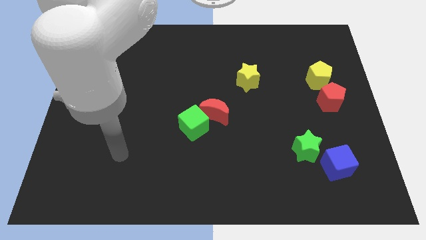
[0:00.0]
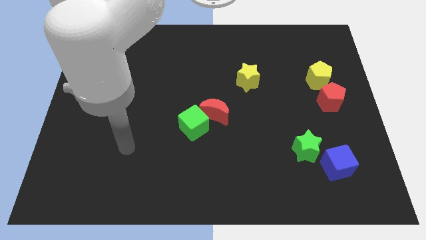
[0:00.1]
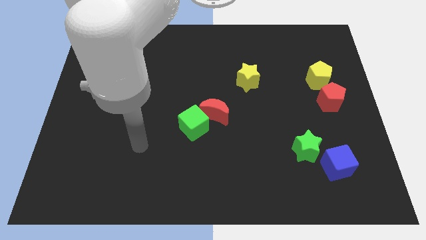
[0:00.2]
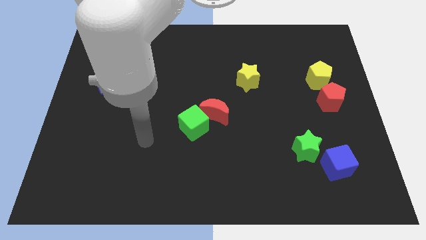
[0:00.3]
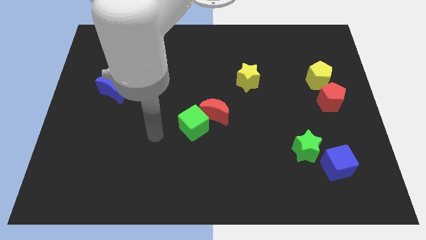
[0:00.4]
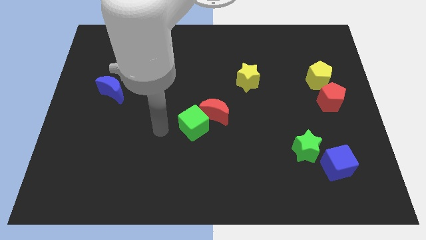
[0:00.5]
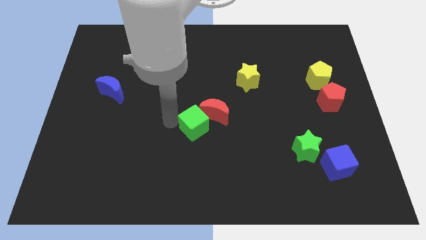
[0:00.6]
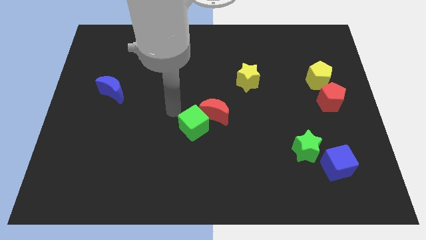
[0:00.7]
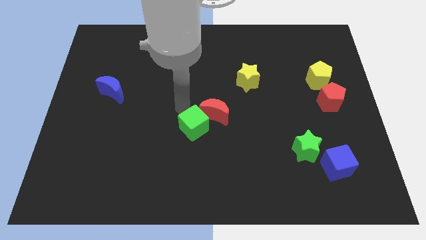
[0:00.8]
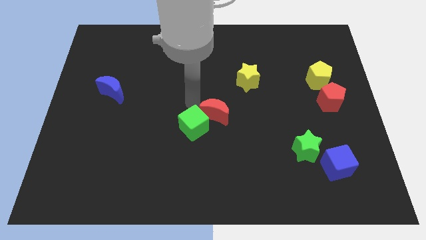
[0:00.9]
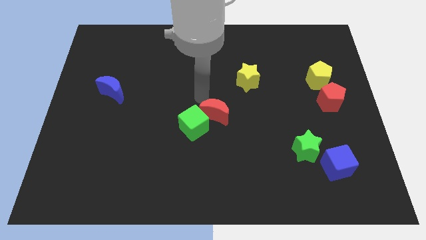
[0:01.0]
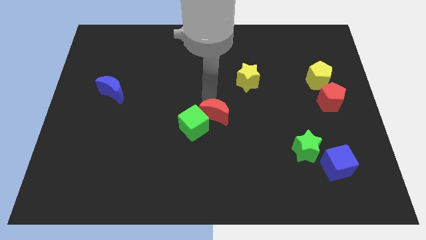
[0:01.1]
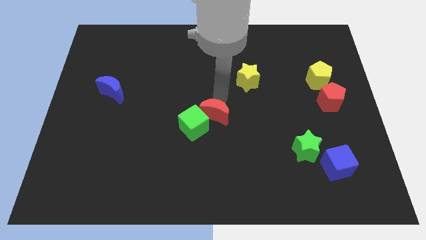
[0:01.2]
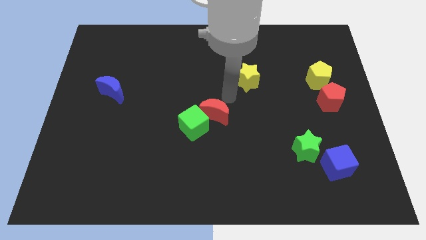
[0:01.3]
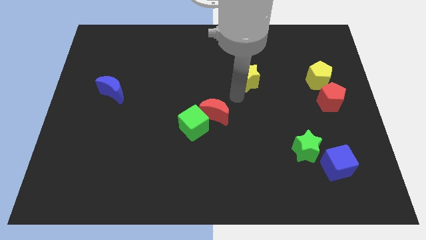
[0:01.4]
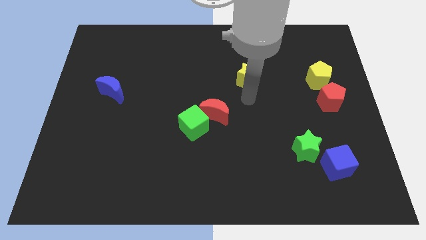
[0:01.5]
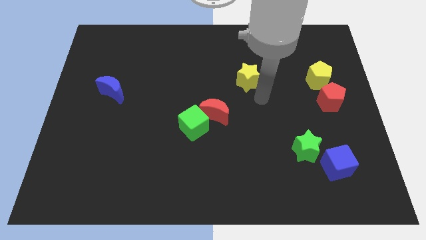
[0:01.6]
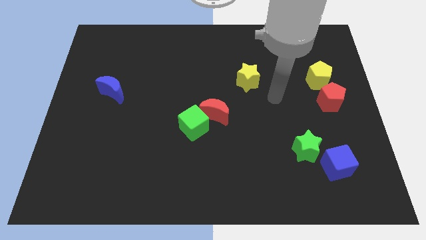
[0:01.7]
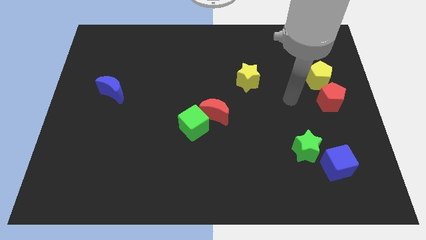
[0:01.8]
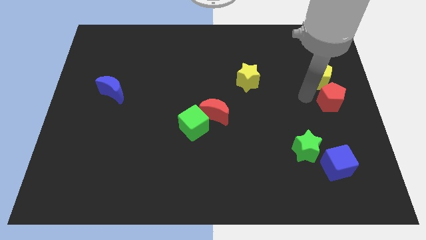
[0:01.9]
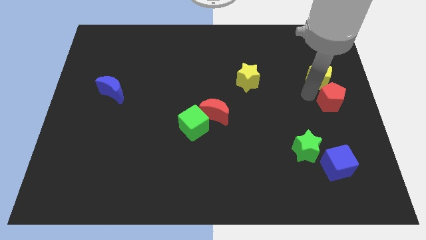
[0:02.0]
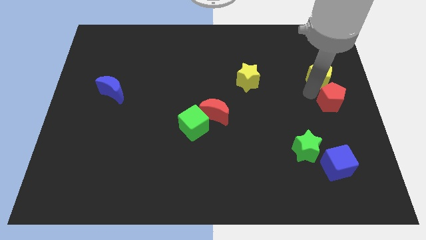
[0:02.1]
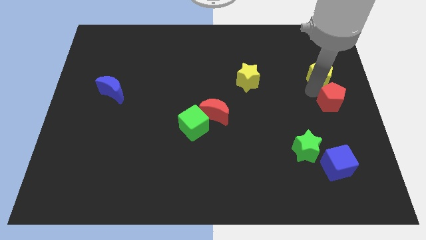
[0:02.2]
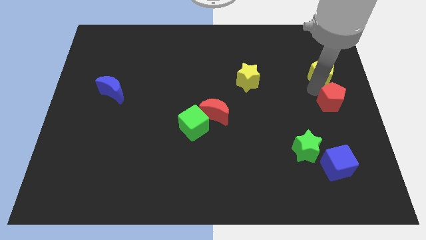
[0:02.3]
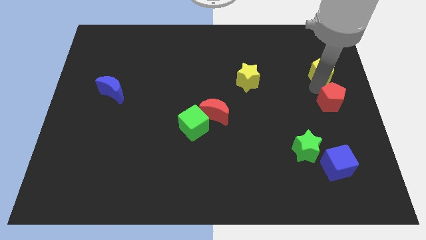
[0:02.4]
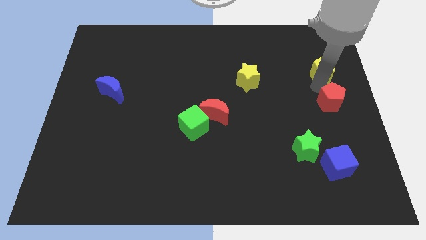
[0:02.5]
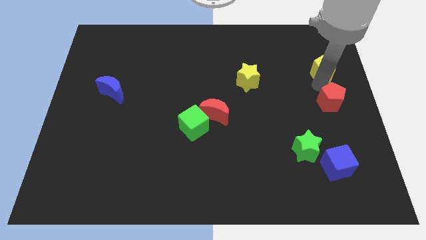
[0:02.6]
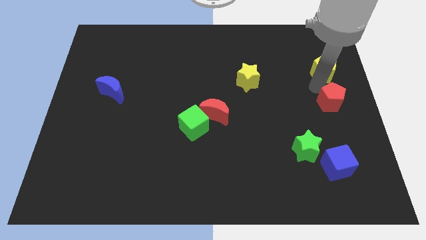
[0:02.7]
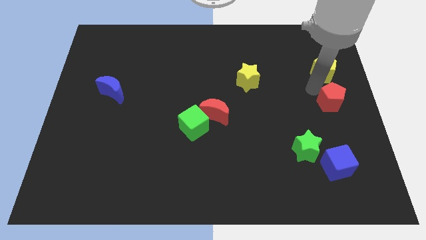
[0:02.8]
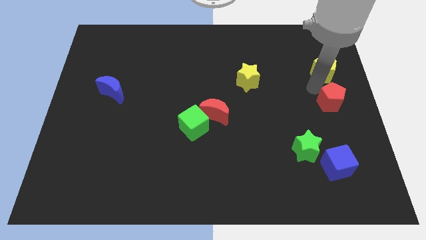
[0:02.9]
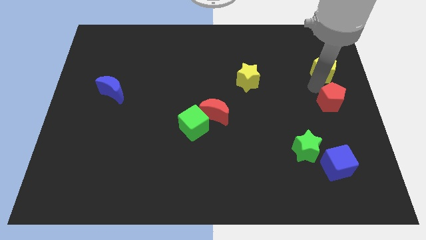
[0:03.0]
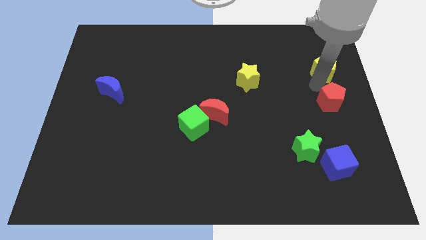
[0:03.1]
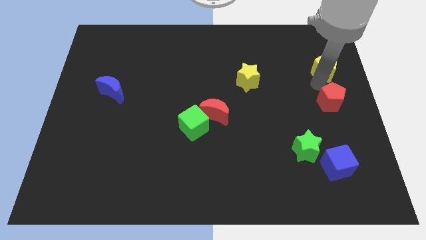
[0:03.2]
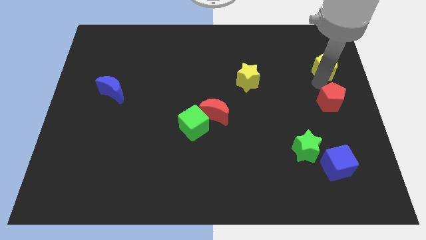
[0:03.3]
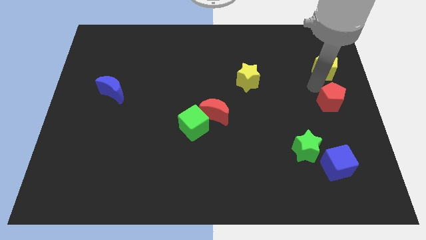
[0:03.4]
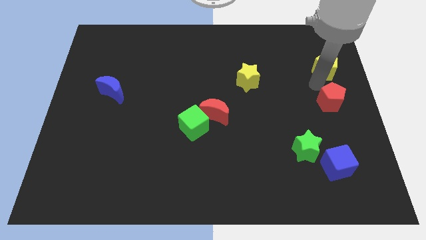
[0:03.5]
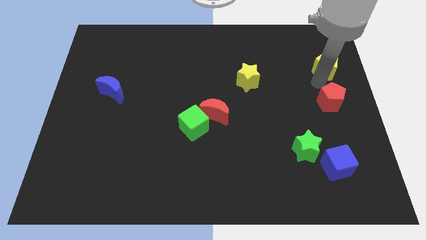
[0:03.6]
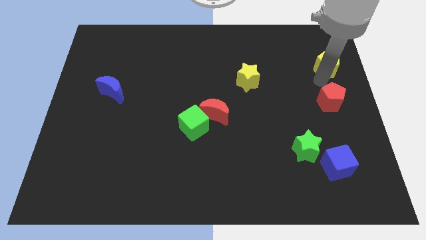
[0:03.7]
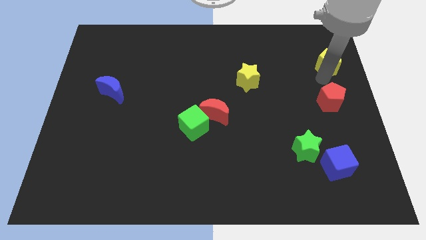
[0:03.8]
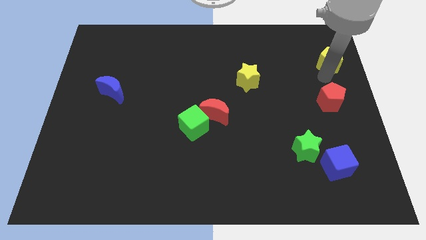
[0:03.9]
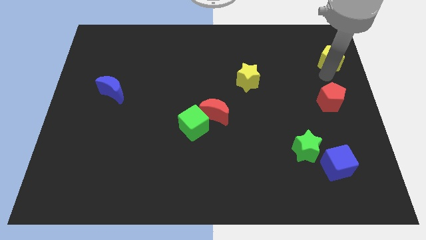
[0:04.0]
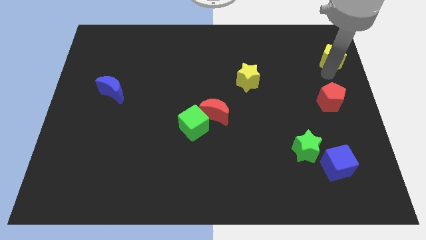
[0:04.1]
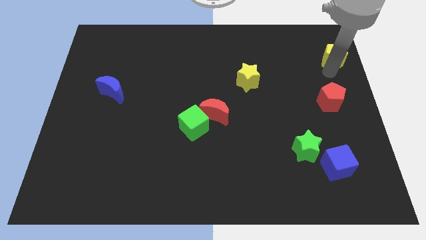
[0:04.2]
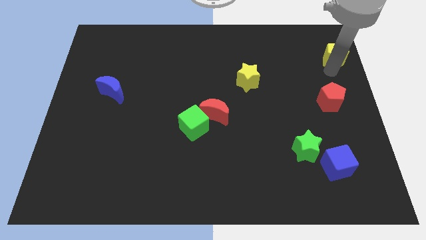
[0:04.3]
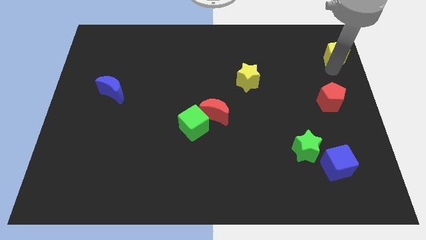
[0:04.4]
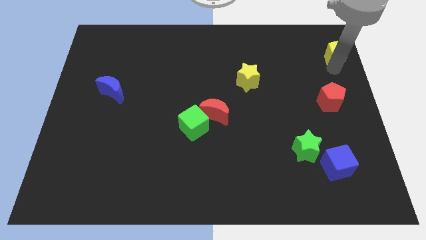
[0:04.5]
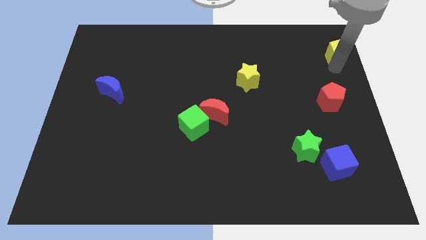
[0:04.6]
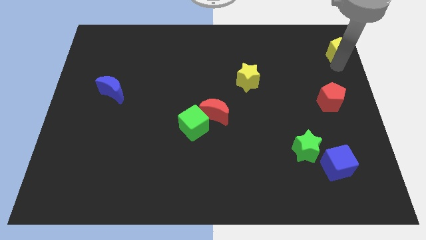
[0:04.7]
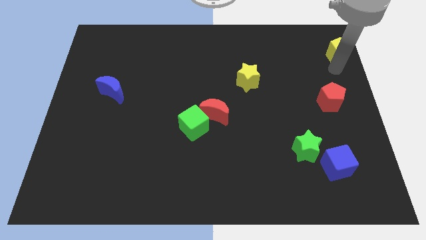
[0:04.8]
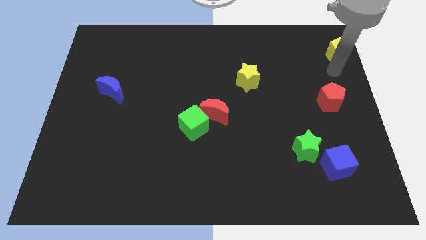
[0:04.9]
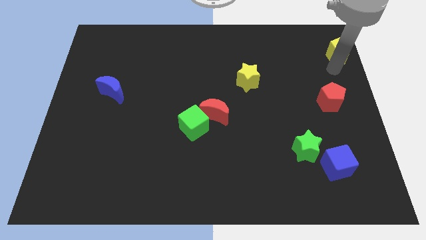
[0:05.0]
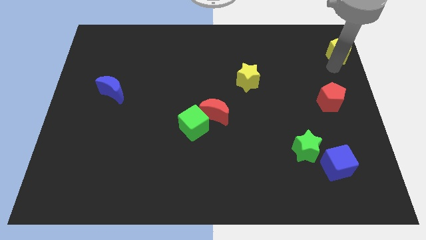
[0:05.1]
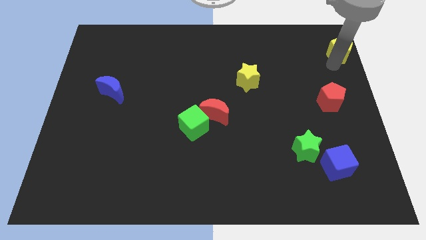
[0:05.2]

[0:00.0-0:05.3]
slide the yellow pentagon to the upper right corner
